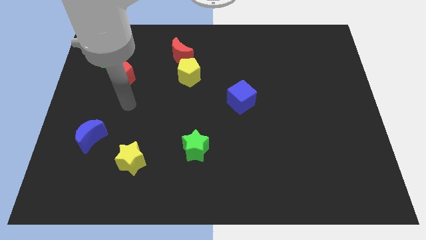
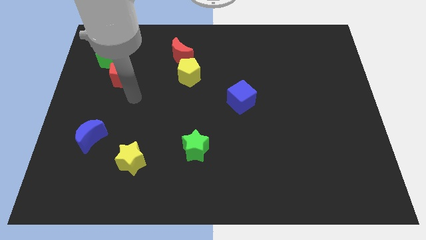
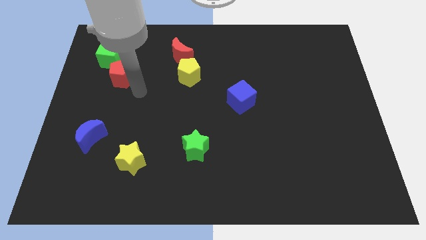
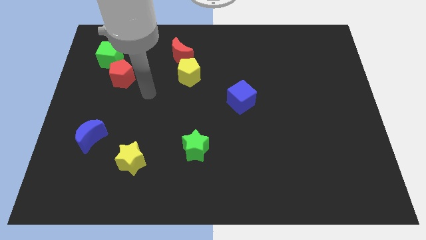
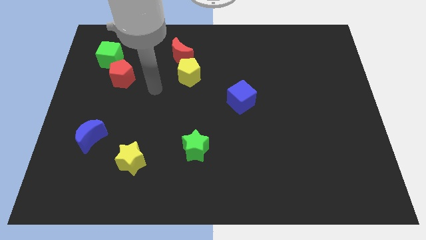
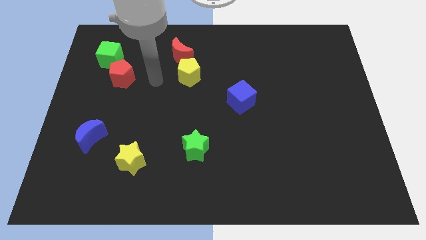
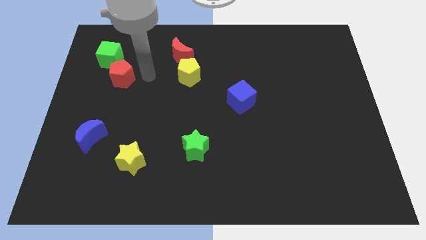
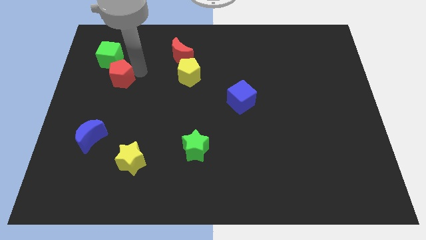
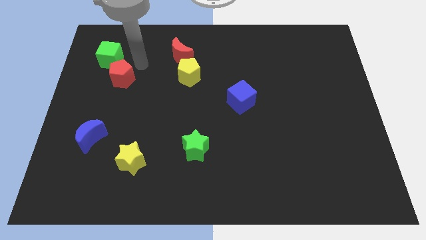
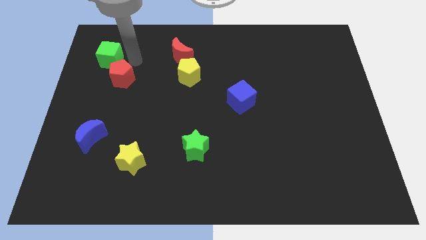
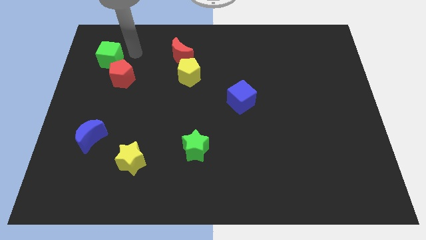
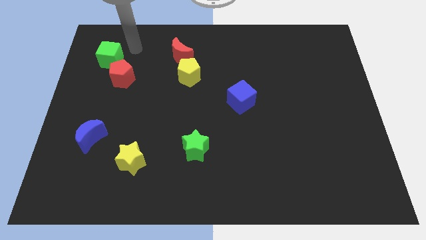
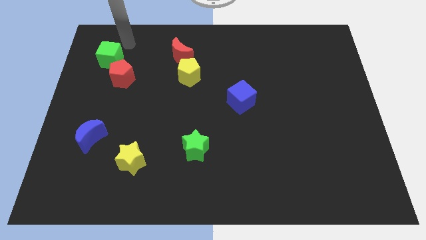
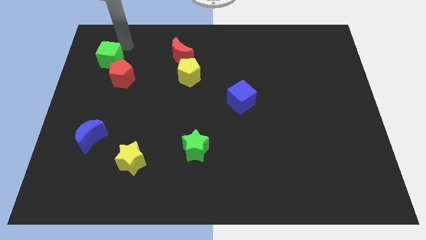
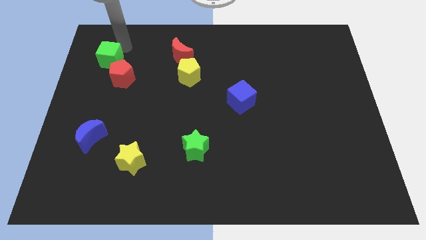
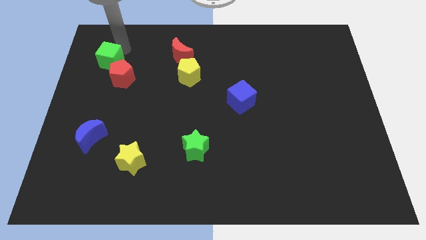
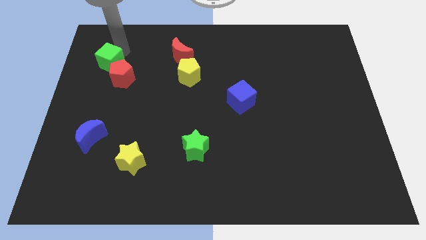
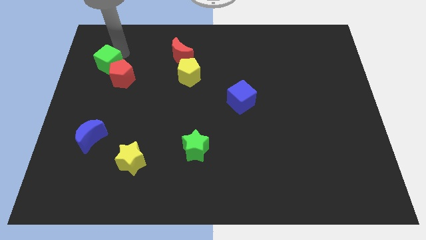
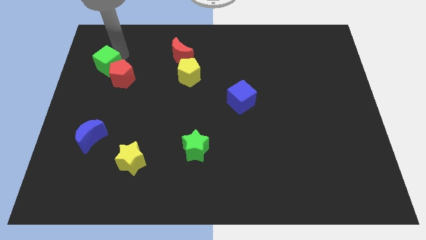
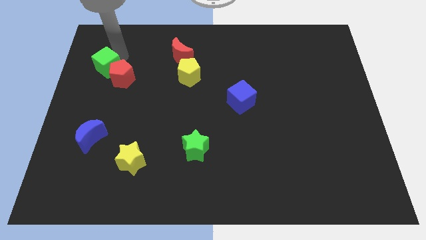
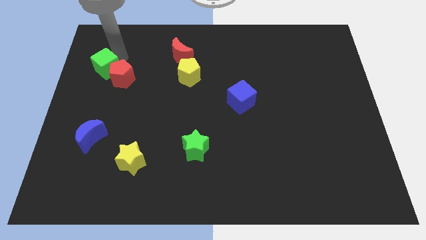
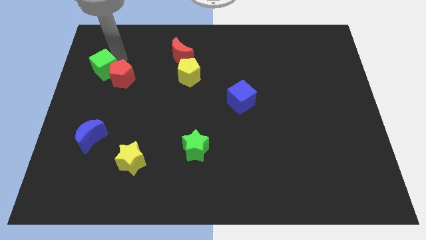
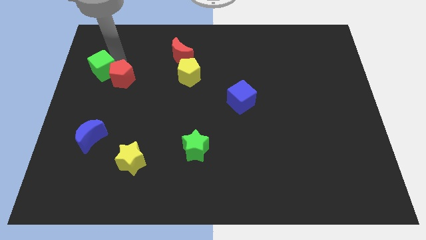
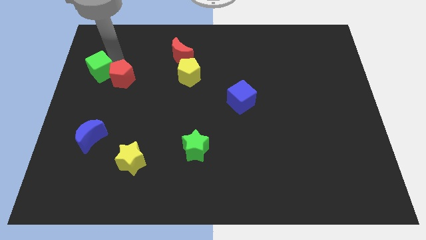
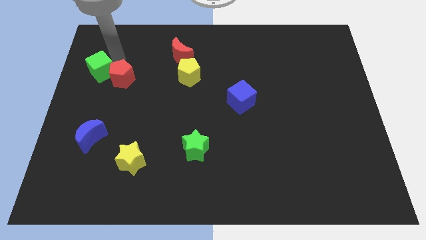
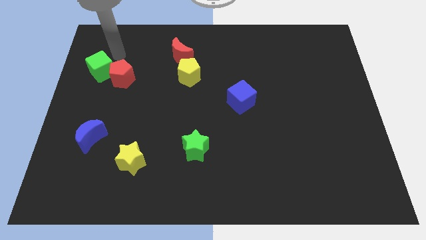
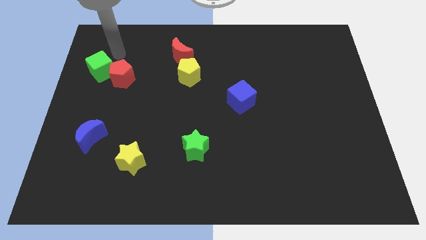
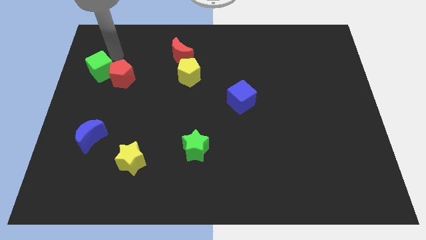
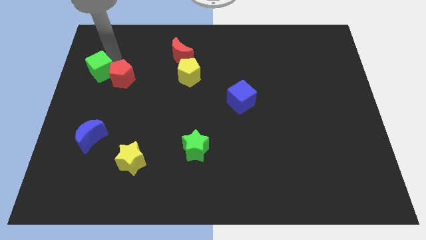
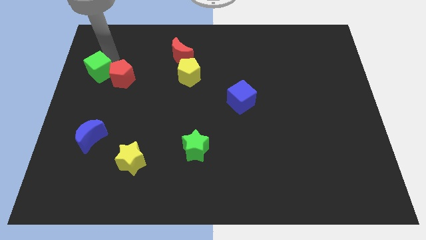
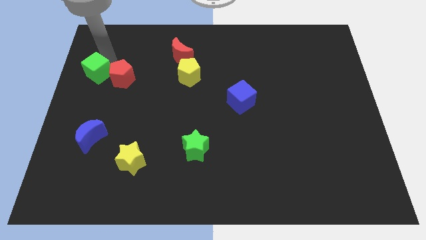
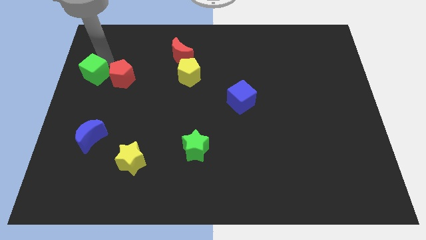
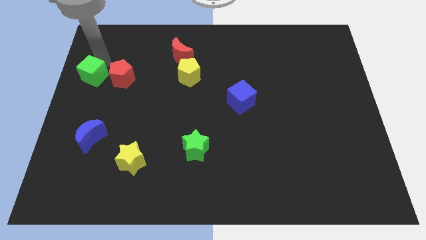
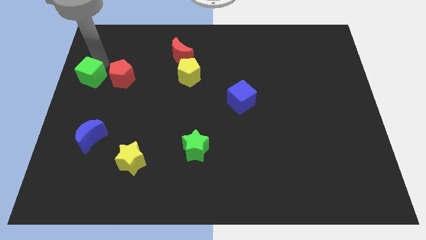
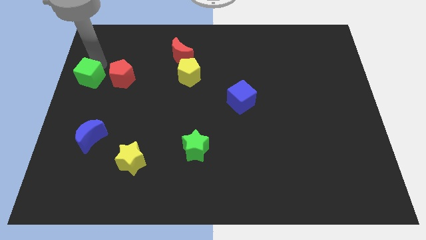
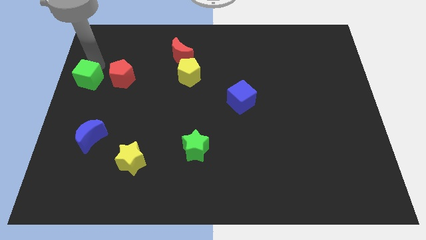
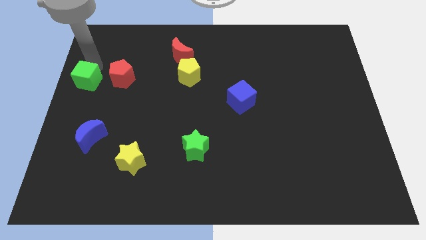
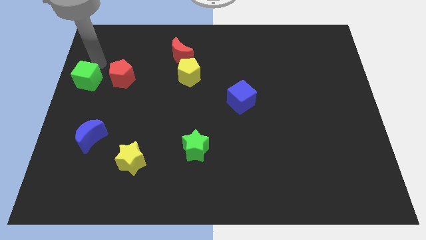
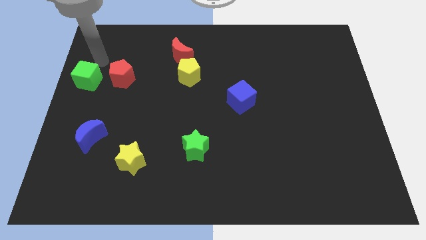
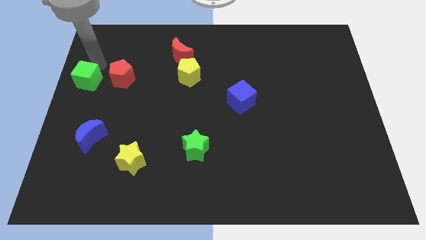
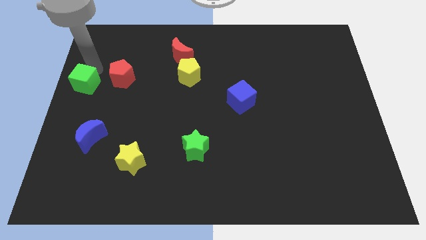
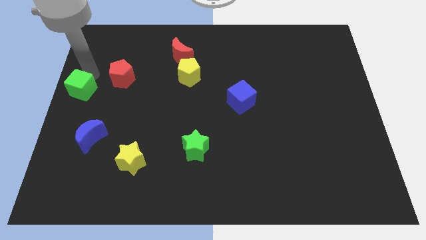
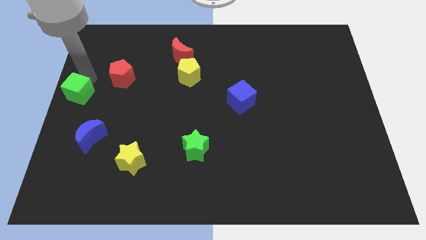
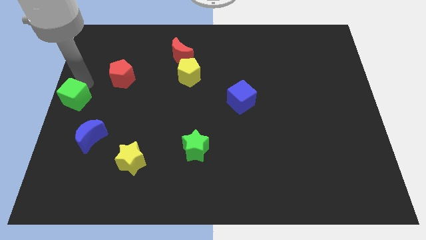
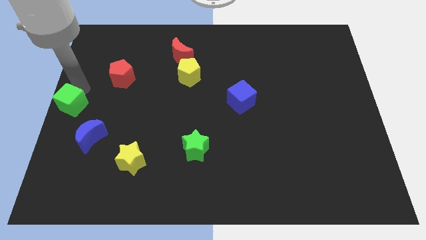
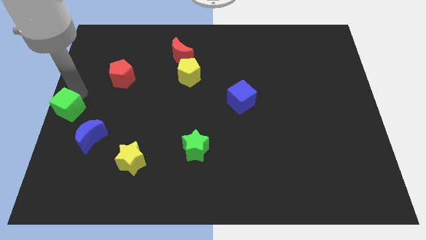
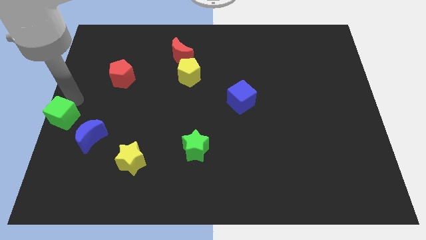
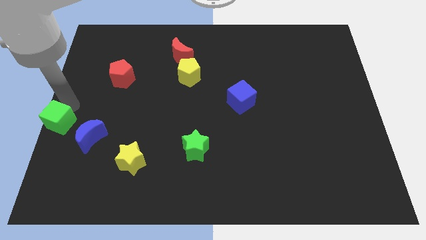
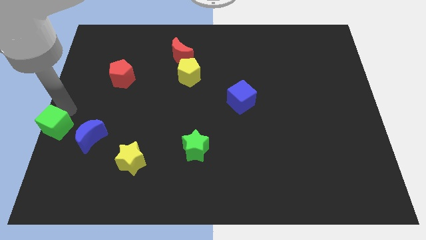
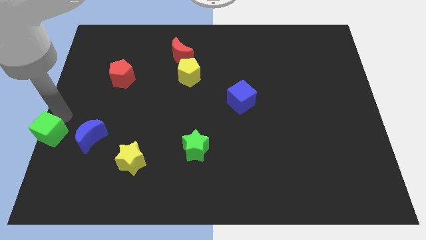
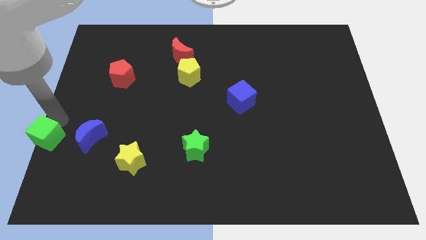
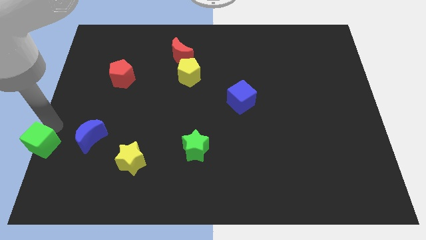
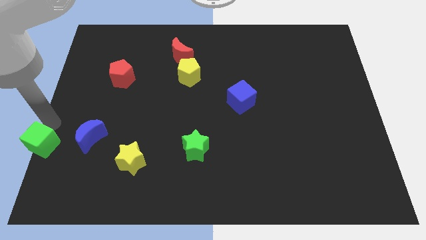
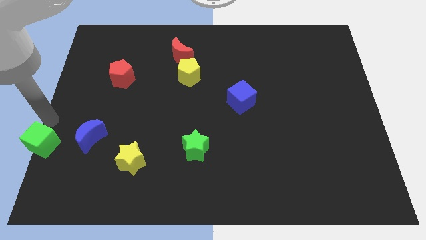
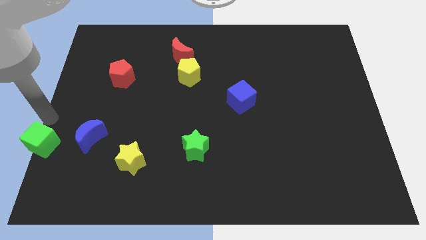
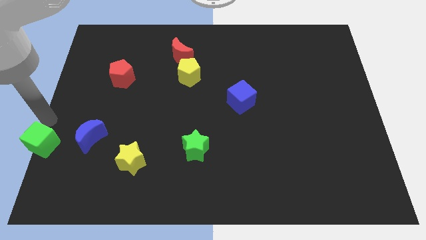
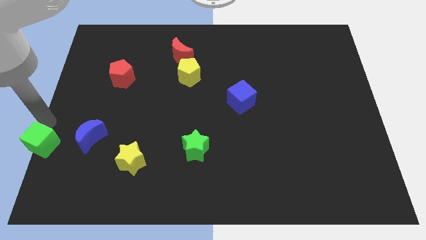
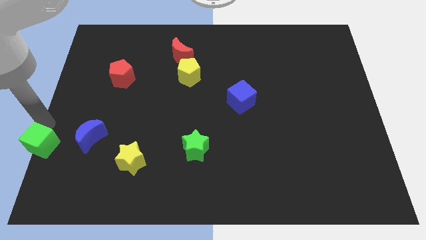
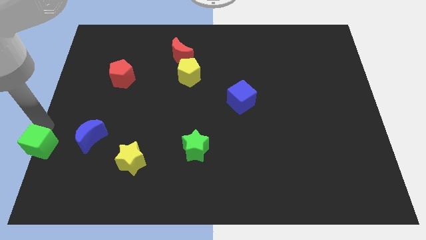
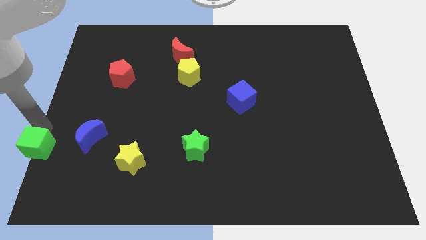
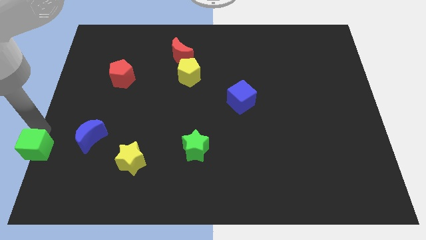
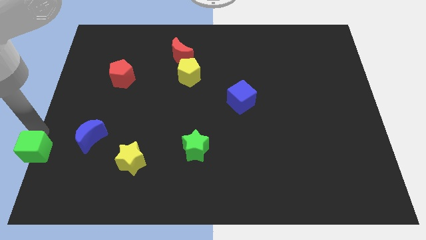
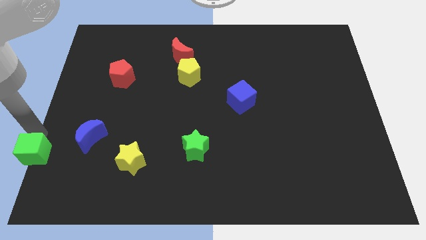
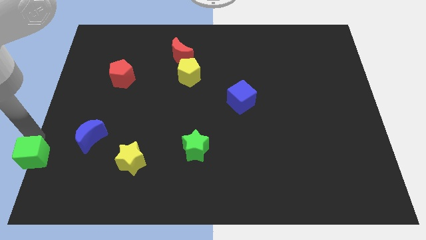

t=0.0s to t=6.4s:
slide the green cube to the bottom left of the board
